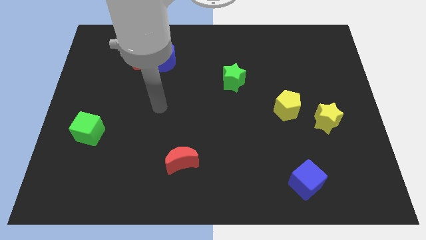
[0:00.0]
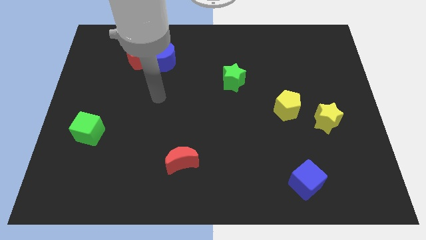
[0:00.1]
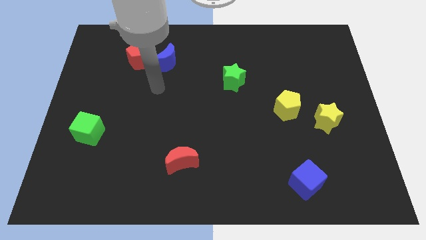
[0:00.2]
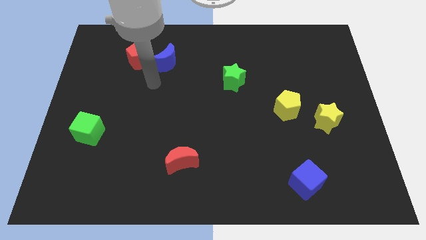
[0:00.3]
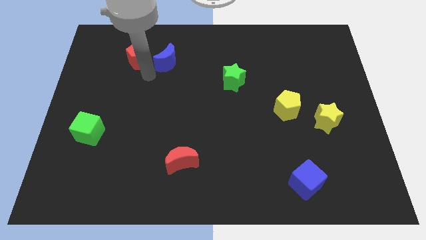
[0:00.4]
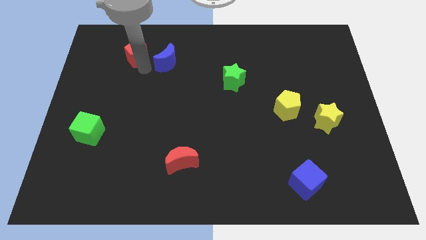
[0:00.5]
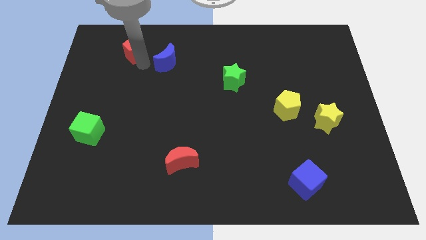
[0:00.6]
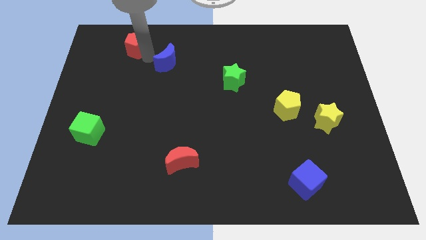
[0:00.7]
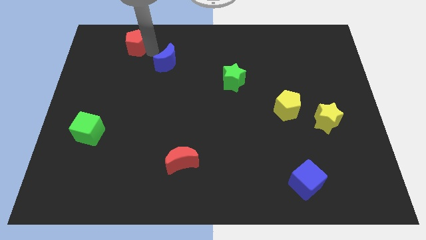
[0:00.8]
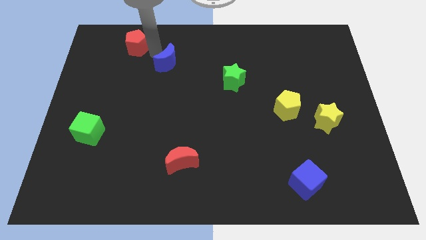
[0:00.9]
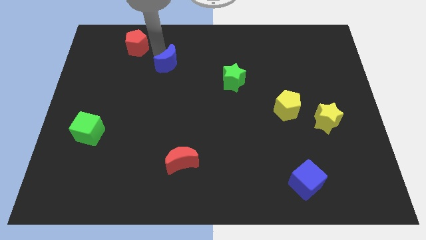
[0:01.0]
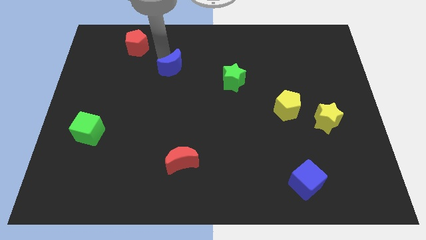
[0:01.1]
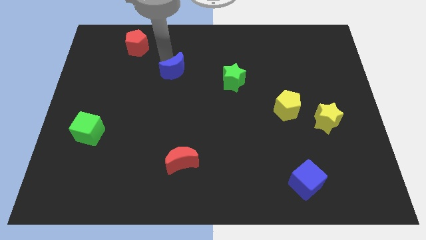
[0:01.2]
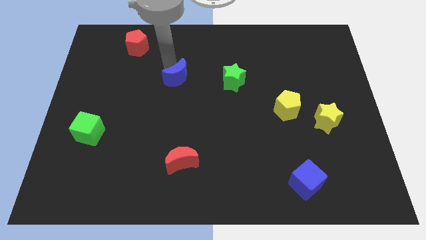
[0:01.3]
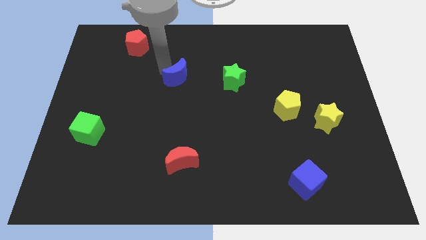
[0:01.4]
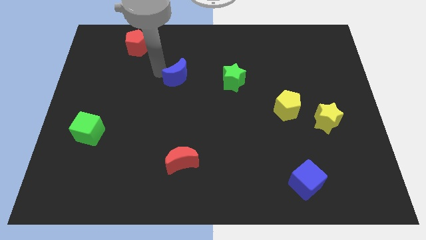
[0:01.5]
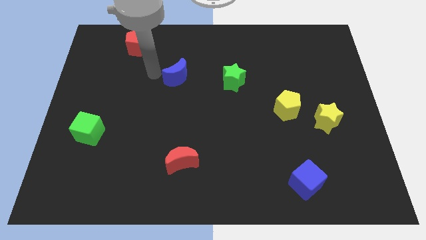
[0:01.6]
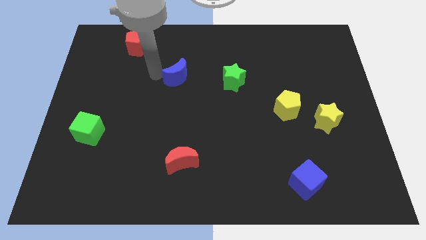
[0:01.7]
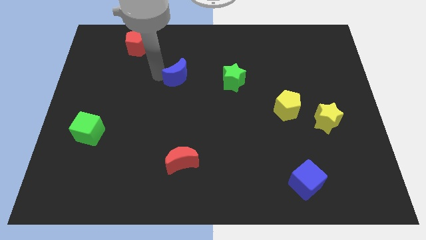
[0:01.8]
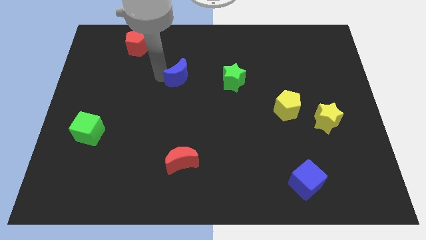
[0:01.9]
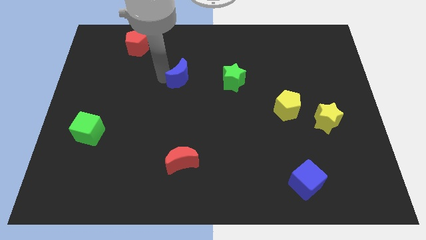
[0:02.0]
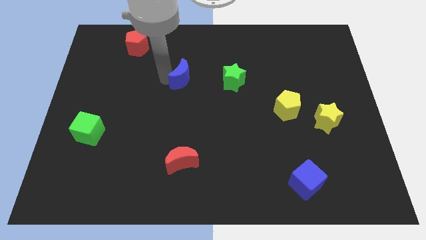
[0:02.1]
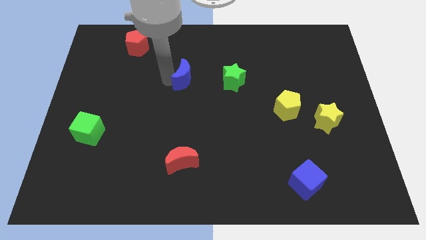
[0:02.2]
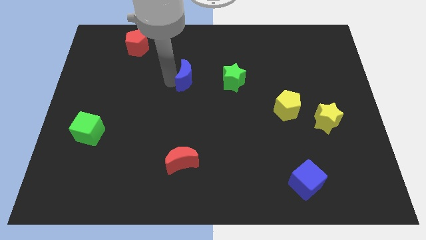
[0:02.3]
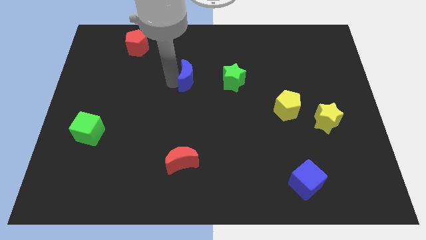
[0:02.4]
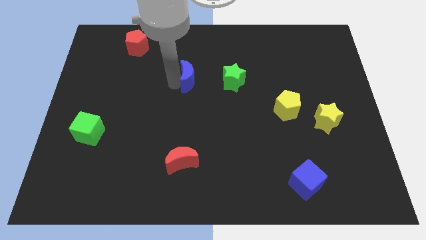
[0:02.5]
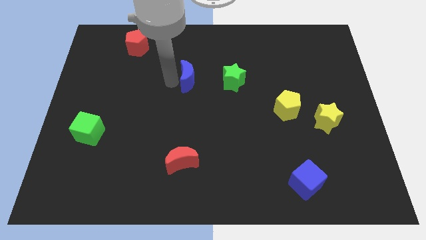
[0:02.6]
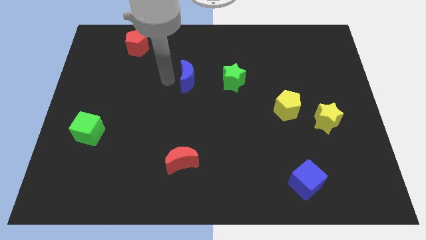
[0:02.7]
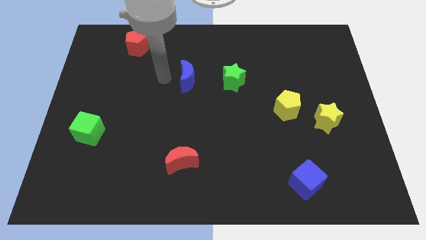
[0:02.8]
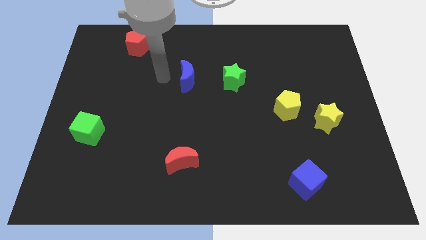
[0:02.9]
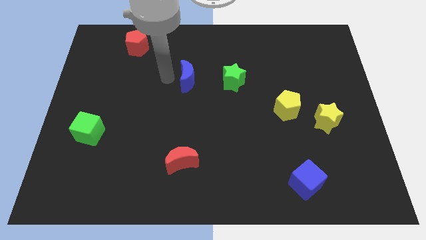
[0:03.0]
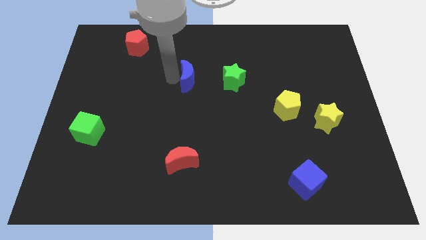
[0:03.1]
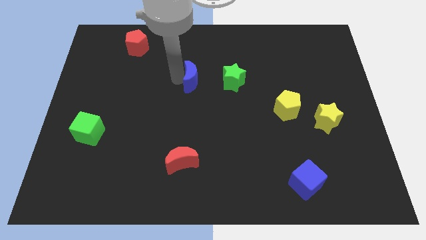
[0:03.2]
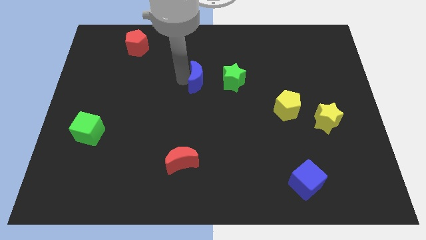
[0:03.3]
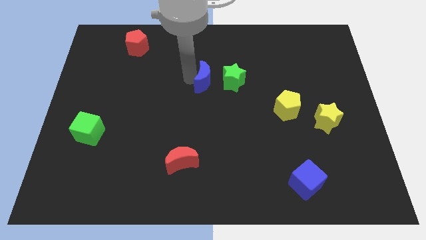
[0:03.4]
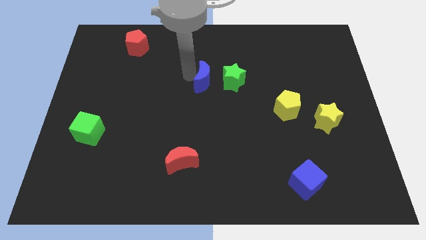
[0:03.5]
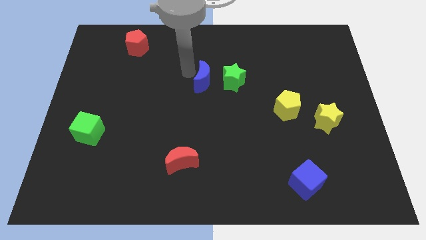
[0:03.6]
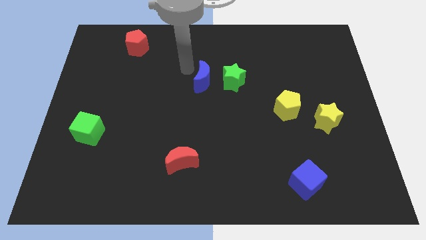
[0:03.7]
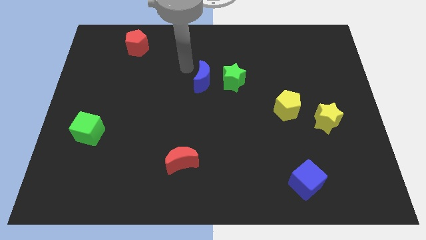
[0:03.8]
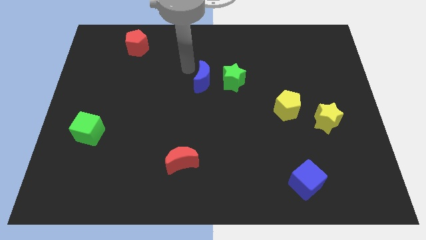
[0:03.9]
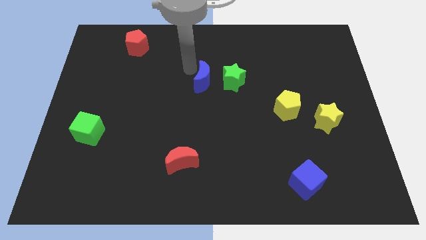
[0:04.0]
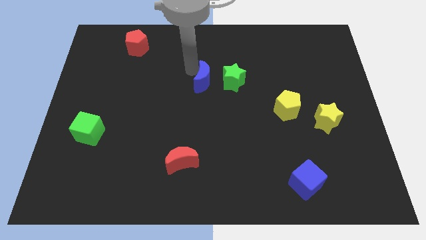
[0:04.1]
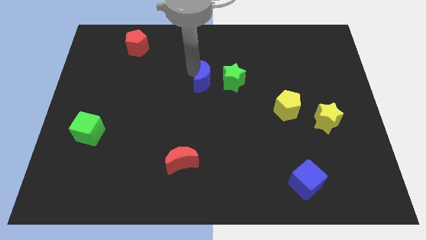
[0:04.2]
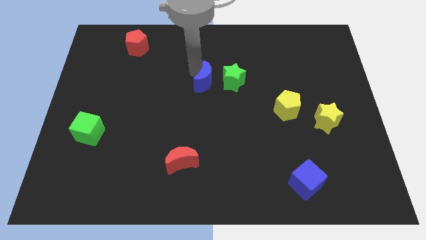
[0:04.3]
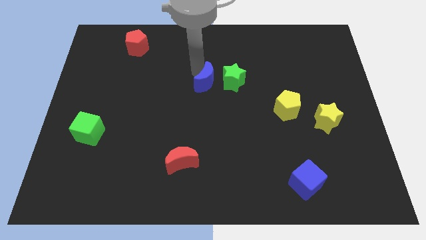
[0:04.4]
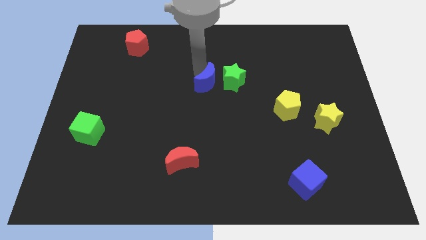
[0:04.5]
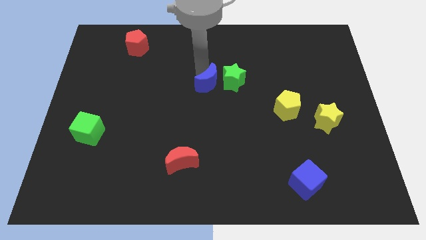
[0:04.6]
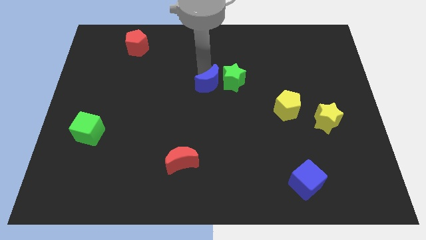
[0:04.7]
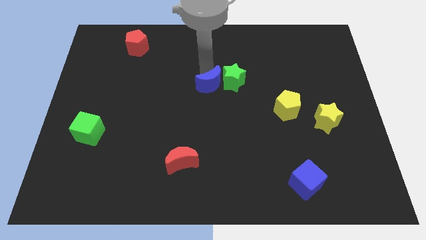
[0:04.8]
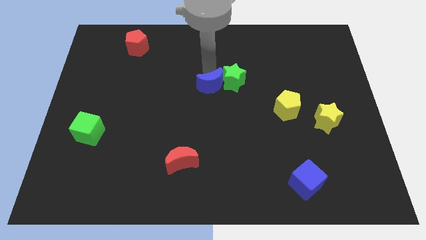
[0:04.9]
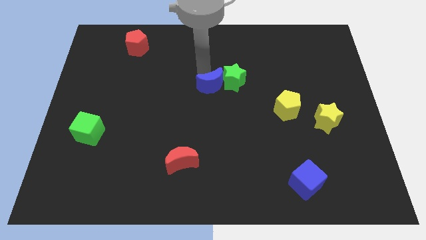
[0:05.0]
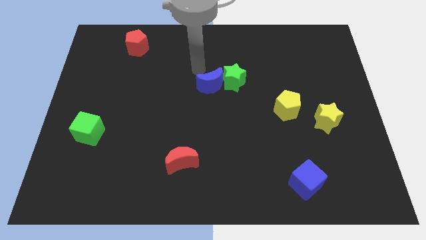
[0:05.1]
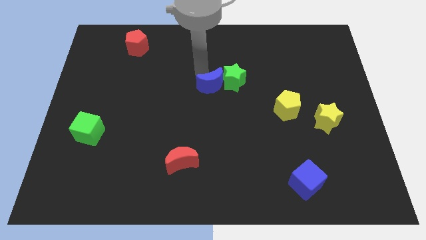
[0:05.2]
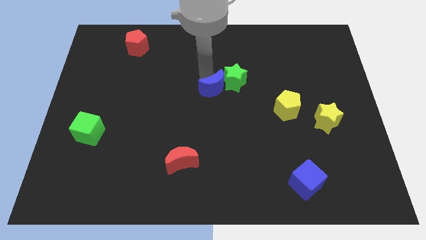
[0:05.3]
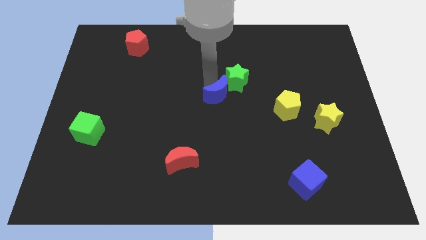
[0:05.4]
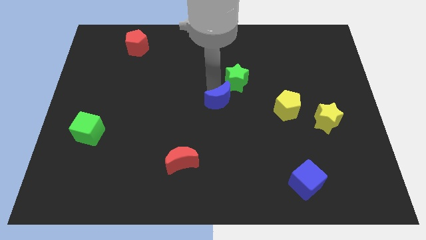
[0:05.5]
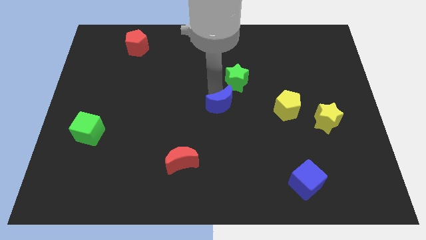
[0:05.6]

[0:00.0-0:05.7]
slide the blue moon down and to the right

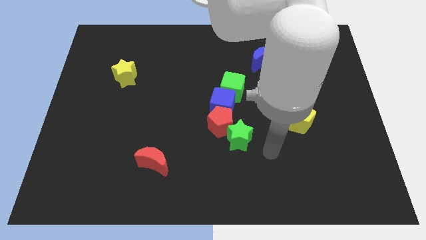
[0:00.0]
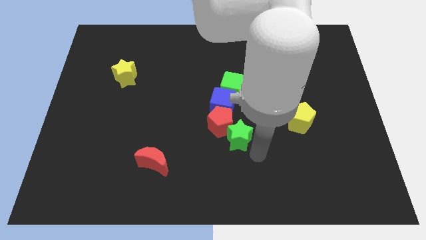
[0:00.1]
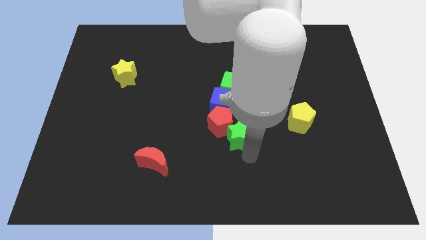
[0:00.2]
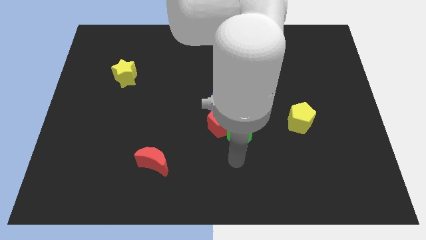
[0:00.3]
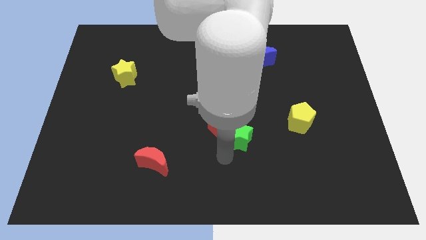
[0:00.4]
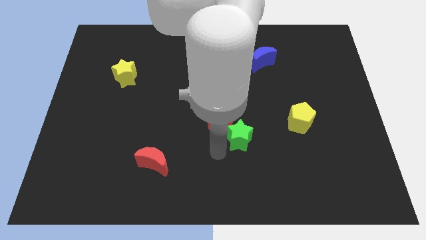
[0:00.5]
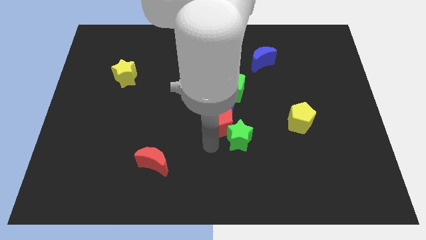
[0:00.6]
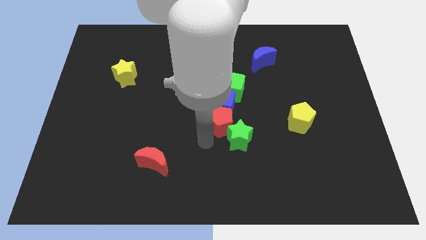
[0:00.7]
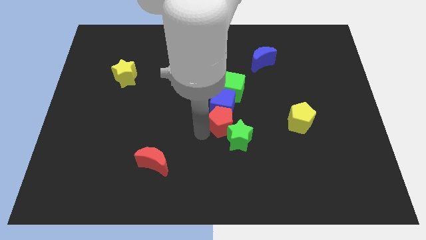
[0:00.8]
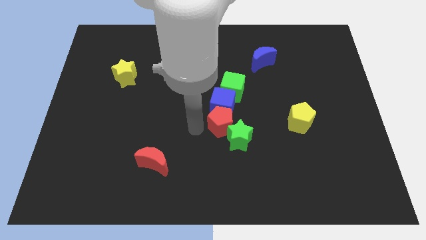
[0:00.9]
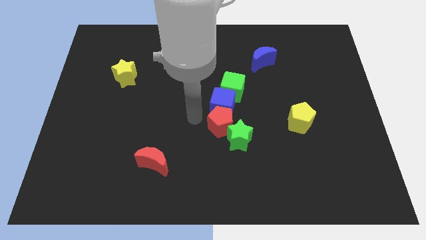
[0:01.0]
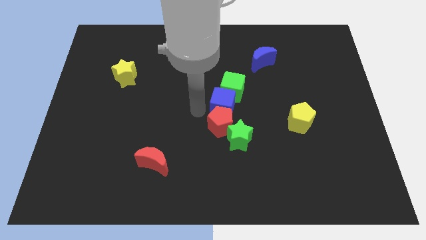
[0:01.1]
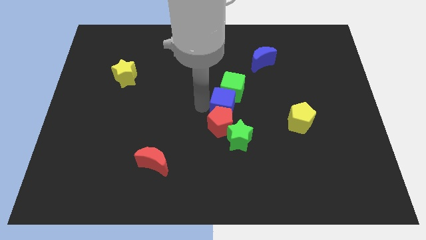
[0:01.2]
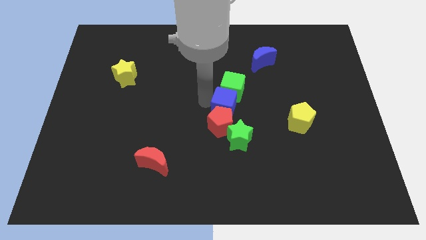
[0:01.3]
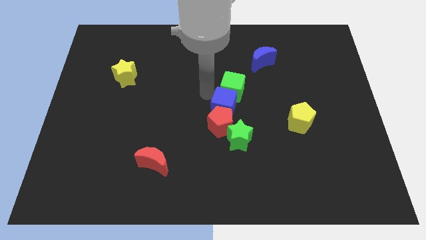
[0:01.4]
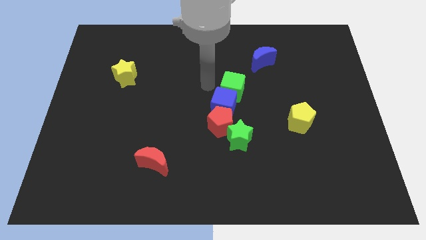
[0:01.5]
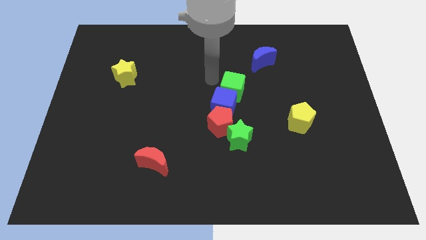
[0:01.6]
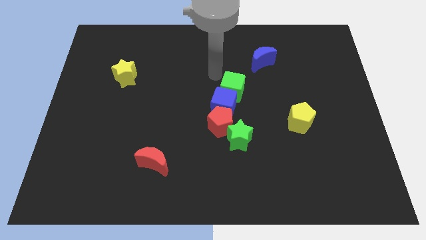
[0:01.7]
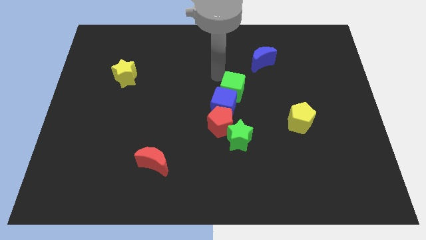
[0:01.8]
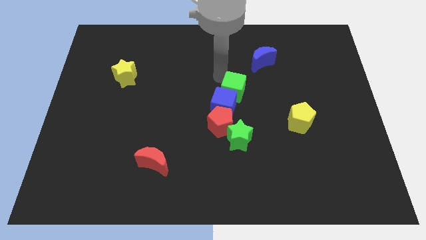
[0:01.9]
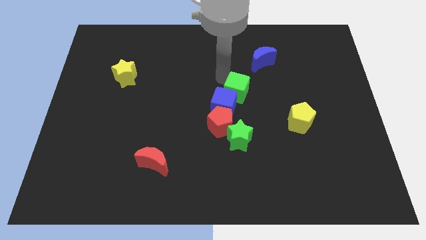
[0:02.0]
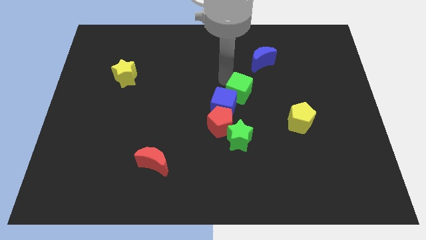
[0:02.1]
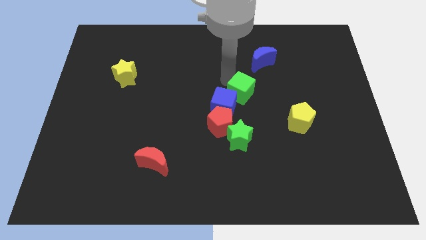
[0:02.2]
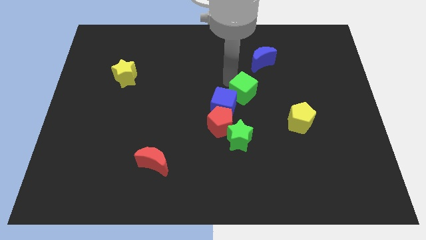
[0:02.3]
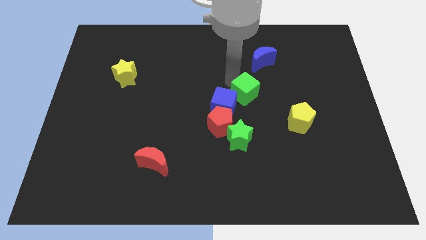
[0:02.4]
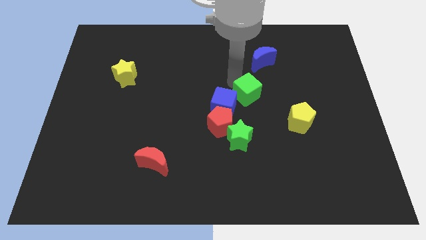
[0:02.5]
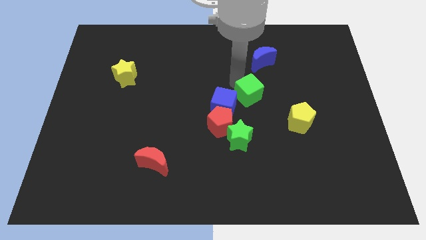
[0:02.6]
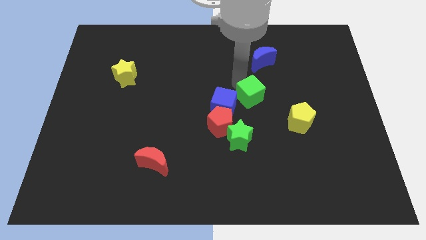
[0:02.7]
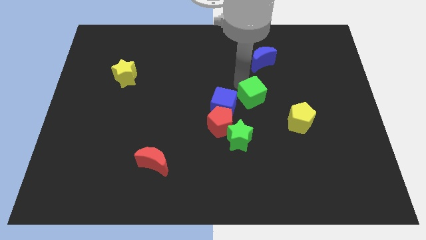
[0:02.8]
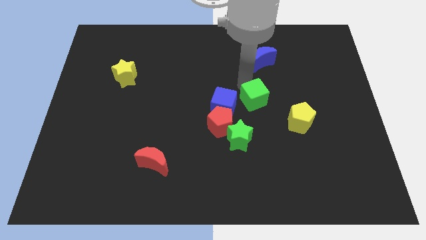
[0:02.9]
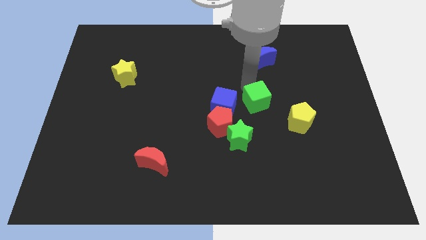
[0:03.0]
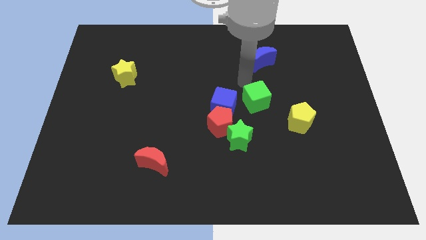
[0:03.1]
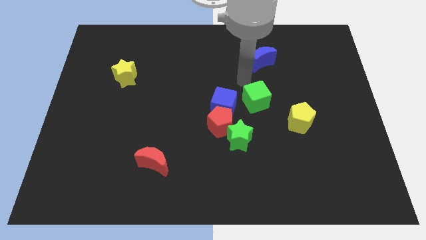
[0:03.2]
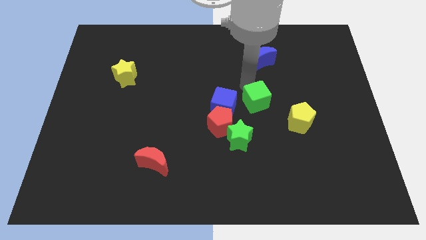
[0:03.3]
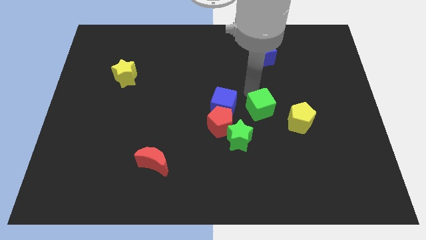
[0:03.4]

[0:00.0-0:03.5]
move the green cube slightly down and then to the right
